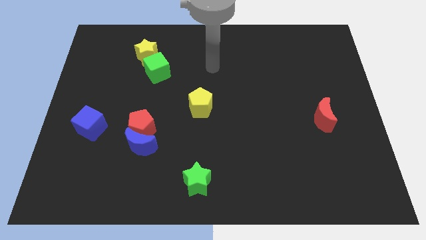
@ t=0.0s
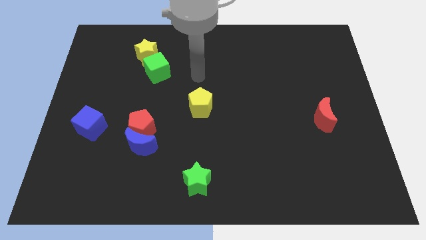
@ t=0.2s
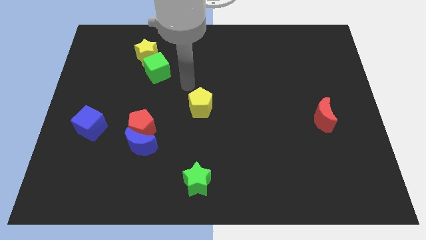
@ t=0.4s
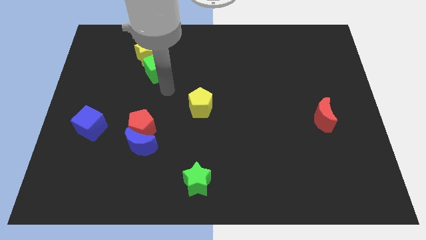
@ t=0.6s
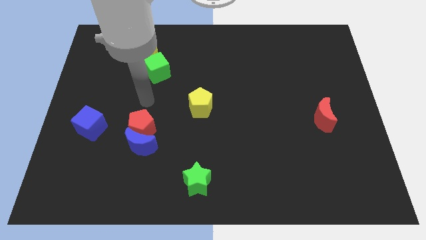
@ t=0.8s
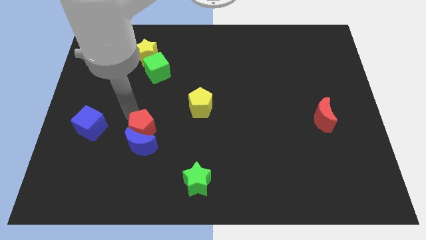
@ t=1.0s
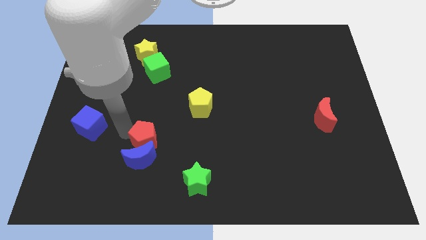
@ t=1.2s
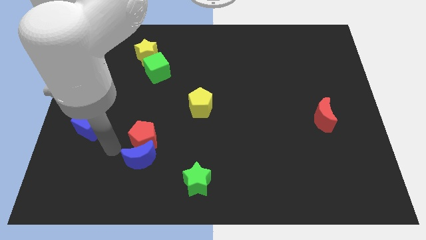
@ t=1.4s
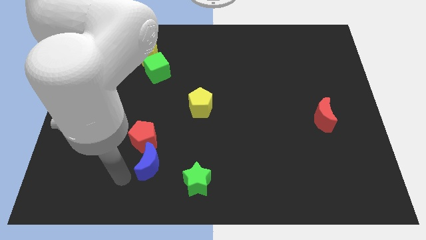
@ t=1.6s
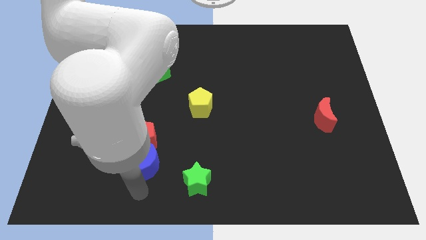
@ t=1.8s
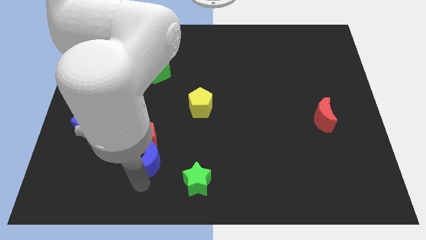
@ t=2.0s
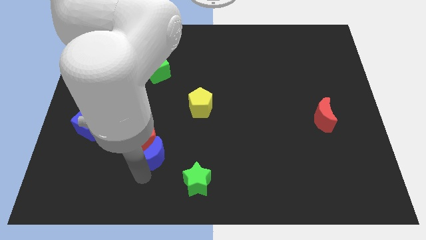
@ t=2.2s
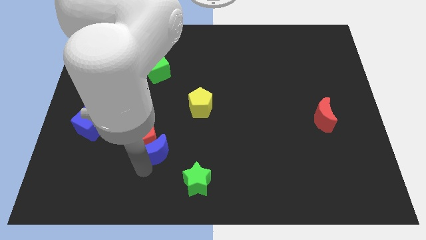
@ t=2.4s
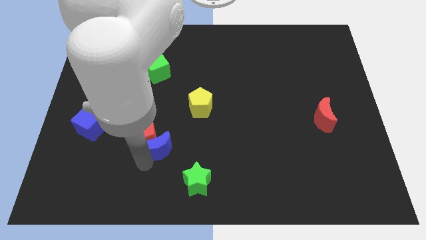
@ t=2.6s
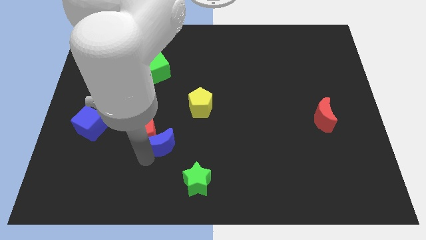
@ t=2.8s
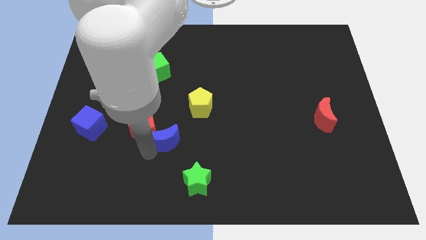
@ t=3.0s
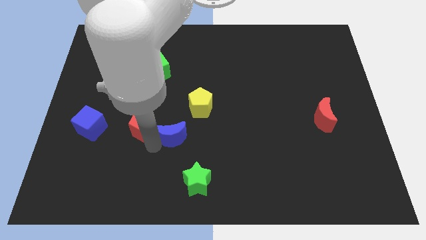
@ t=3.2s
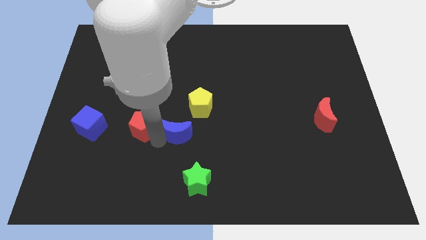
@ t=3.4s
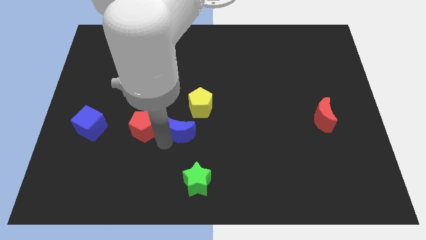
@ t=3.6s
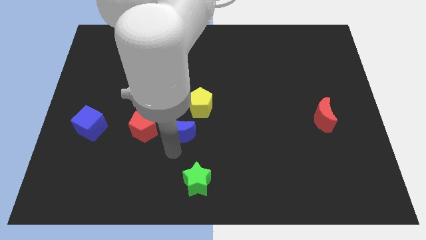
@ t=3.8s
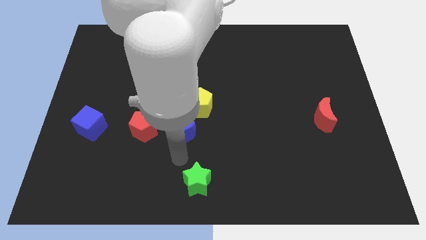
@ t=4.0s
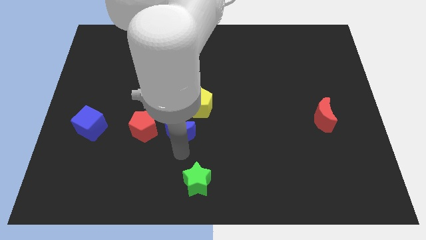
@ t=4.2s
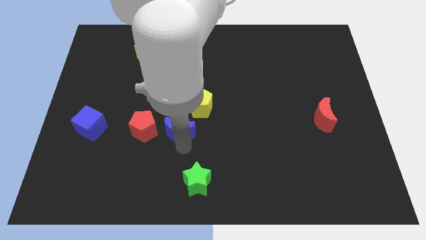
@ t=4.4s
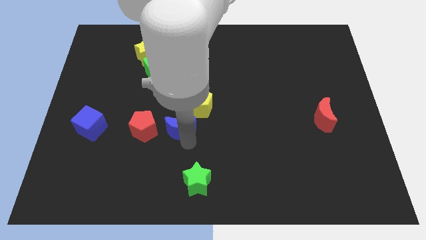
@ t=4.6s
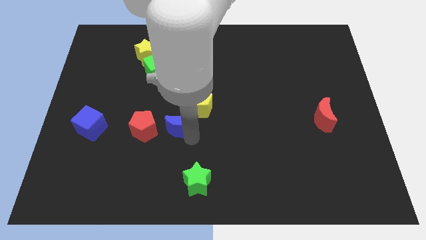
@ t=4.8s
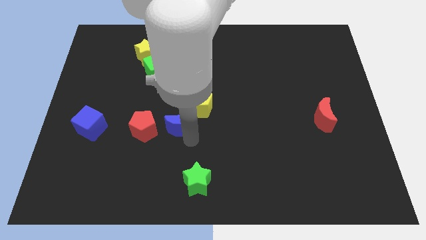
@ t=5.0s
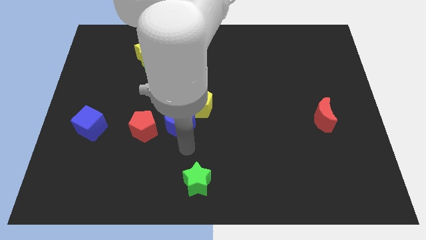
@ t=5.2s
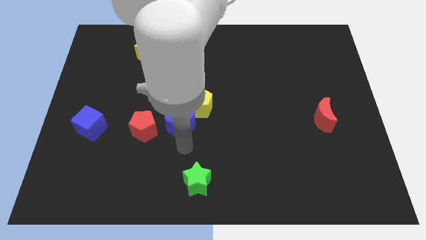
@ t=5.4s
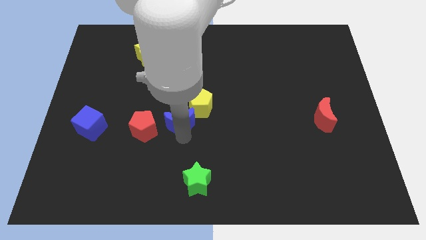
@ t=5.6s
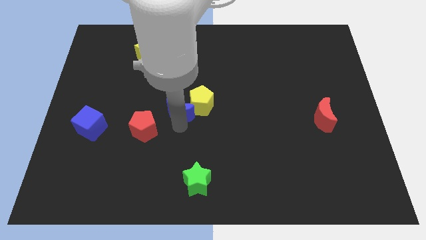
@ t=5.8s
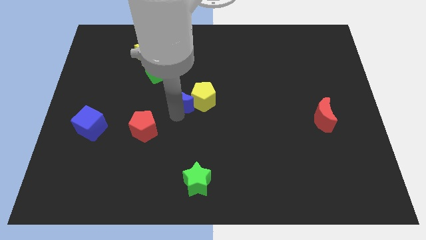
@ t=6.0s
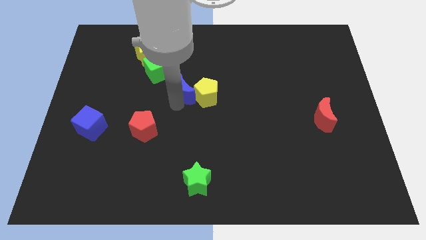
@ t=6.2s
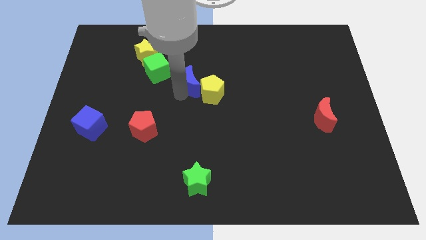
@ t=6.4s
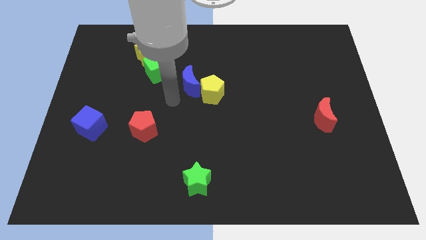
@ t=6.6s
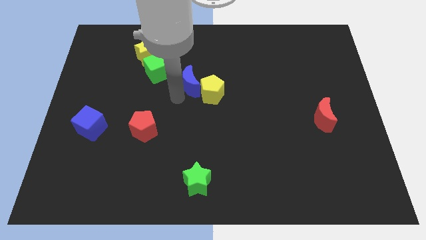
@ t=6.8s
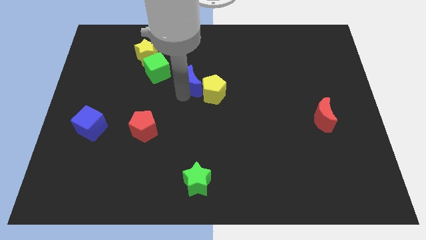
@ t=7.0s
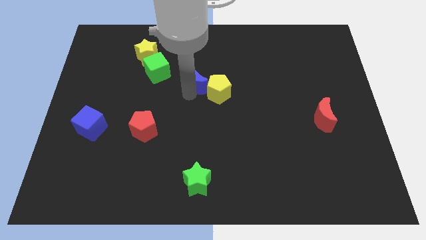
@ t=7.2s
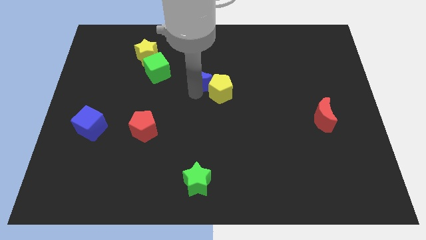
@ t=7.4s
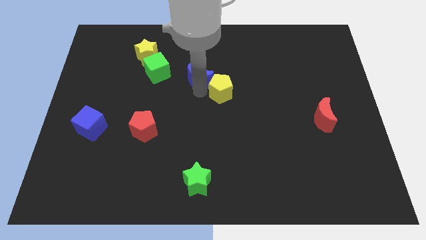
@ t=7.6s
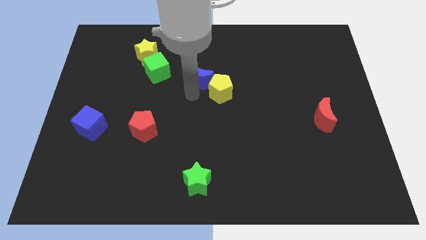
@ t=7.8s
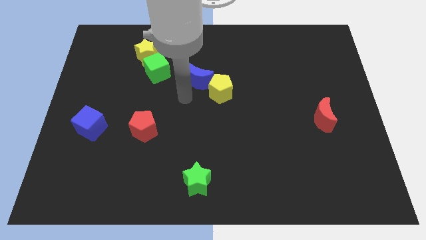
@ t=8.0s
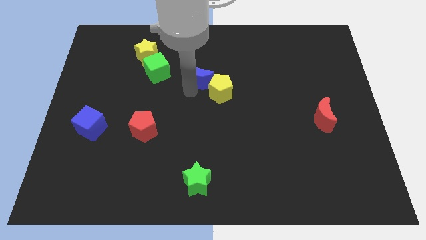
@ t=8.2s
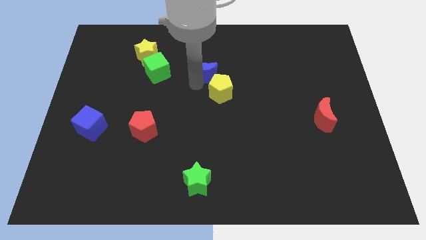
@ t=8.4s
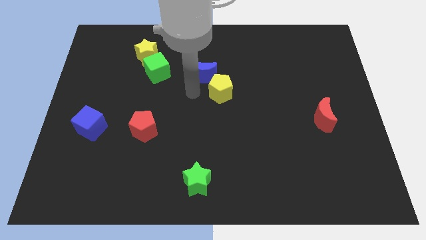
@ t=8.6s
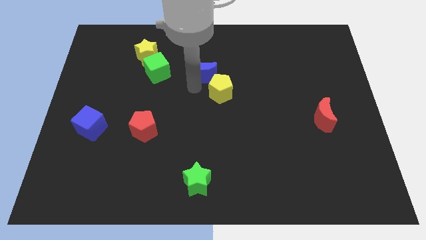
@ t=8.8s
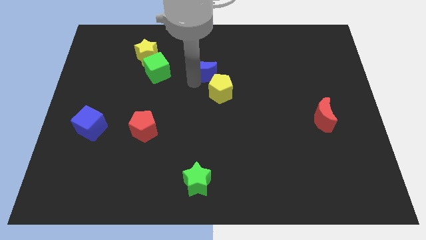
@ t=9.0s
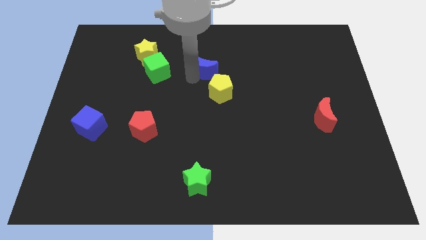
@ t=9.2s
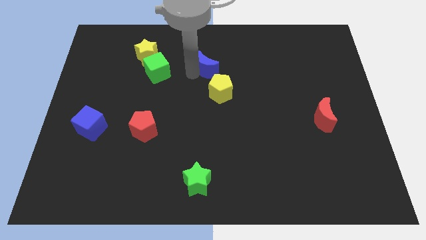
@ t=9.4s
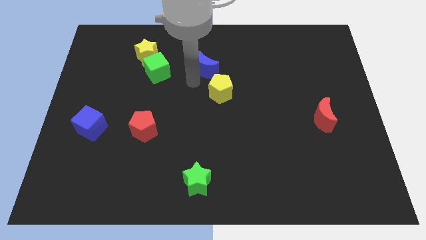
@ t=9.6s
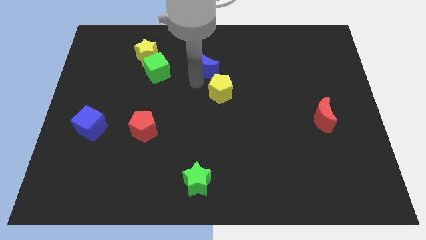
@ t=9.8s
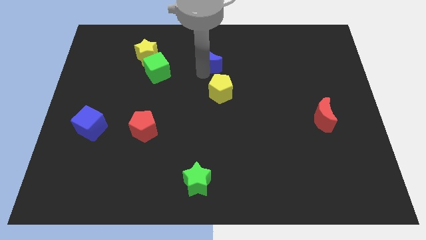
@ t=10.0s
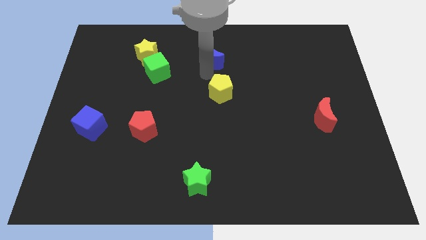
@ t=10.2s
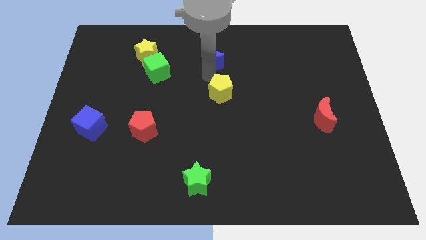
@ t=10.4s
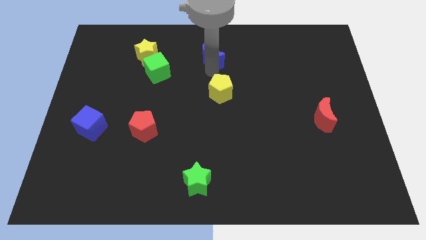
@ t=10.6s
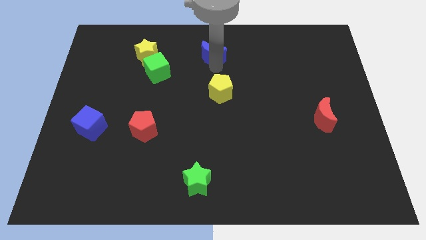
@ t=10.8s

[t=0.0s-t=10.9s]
put the blue moon to the top
